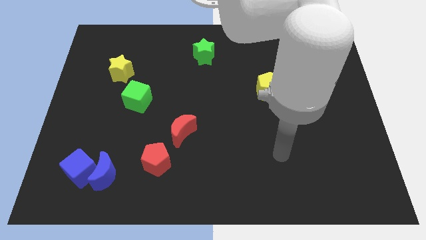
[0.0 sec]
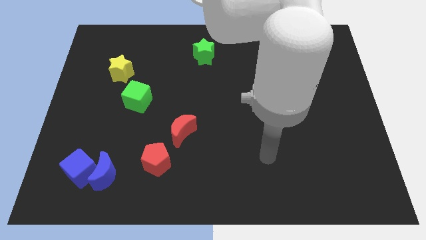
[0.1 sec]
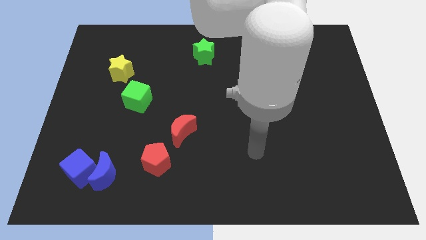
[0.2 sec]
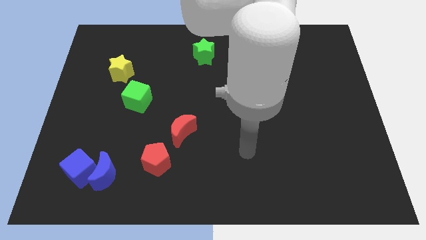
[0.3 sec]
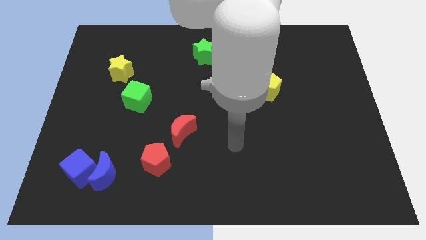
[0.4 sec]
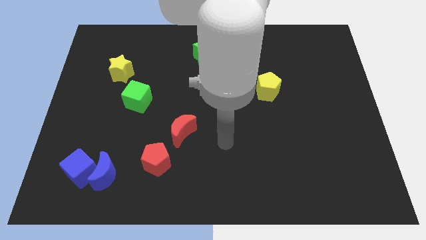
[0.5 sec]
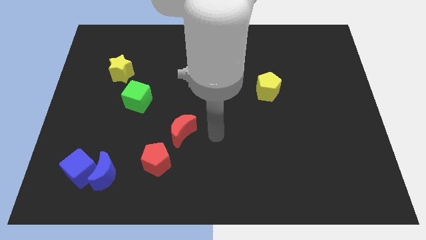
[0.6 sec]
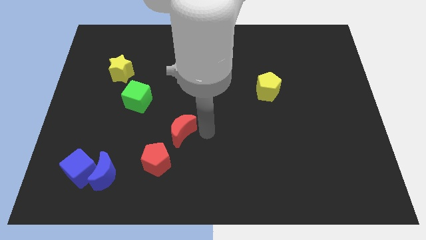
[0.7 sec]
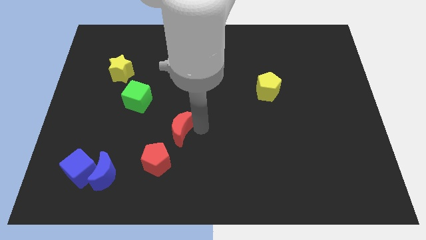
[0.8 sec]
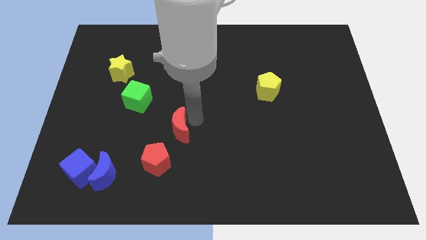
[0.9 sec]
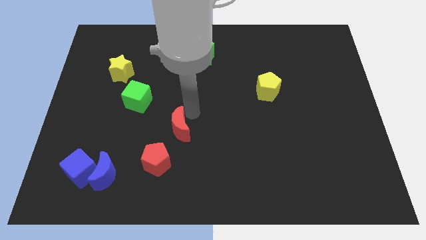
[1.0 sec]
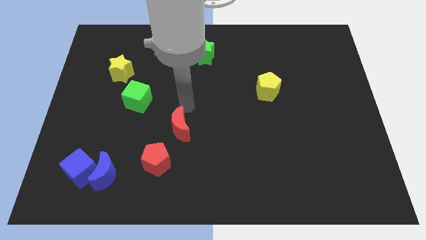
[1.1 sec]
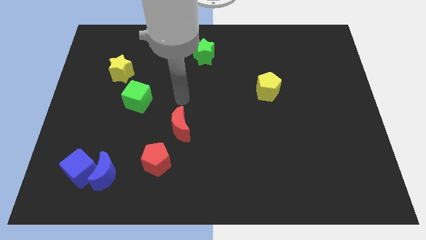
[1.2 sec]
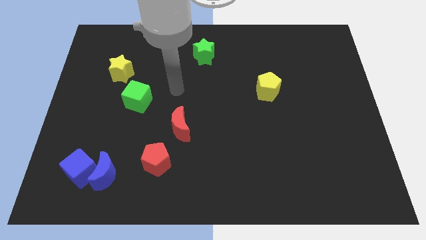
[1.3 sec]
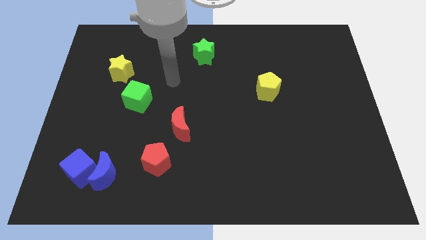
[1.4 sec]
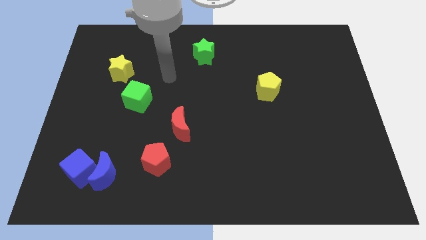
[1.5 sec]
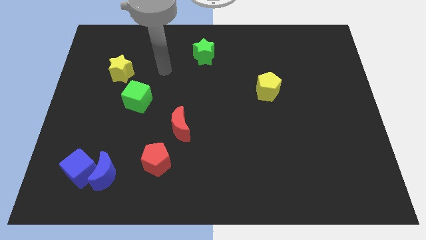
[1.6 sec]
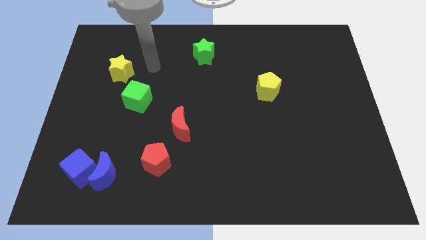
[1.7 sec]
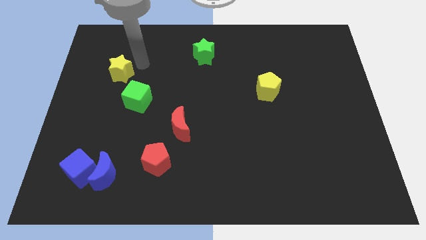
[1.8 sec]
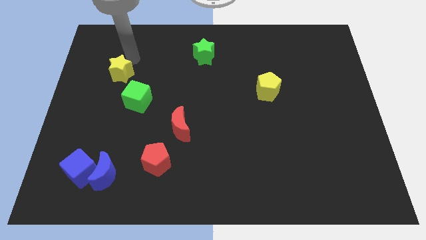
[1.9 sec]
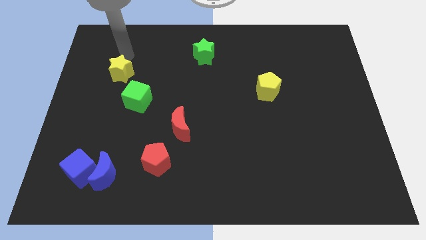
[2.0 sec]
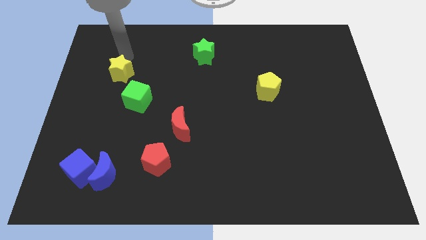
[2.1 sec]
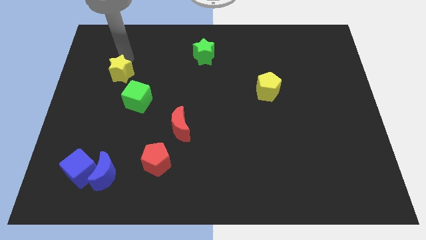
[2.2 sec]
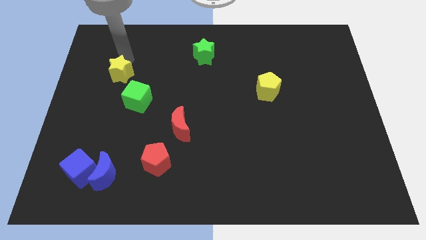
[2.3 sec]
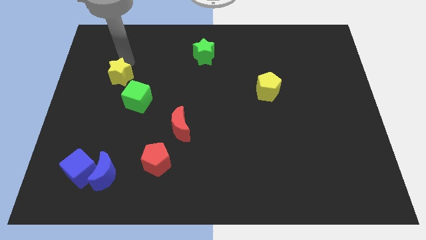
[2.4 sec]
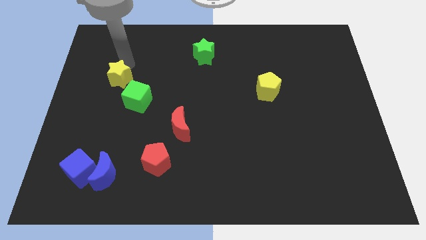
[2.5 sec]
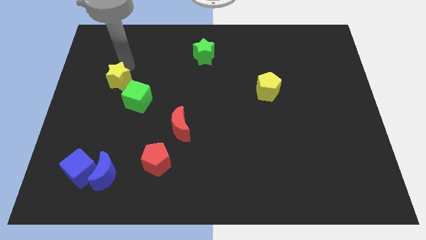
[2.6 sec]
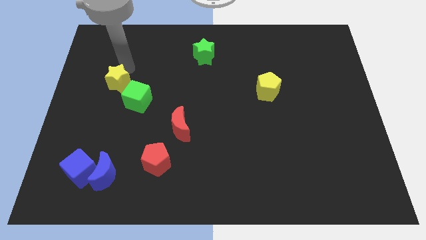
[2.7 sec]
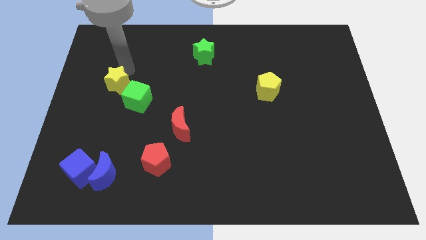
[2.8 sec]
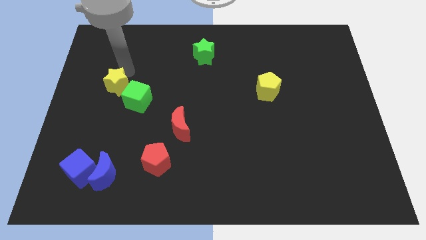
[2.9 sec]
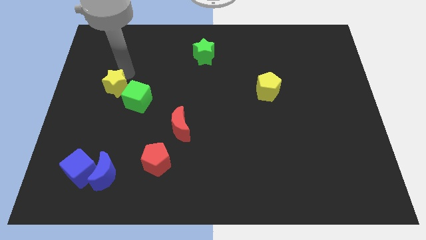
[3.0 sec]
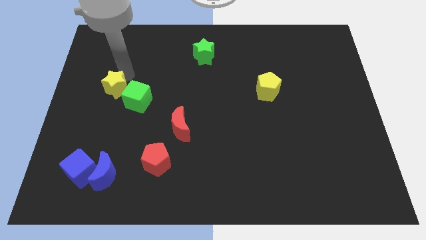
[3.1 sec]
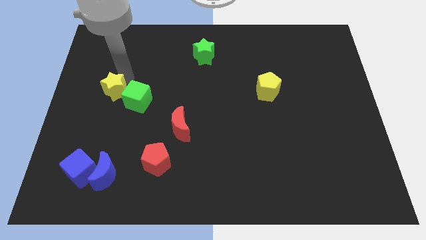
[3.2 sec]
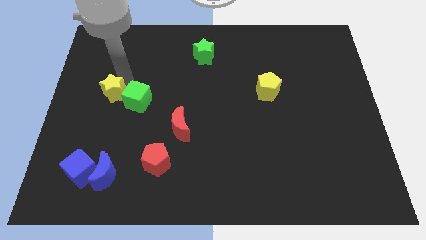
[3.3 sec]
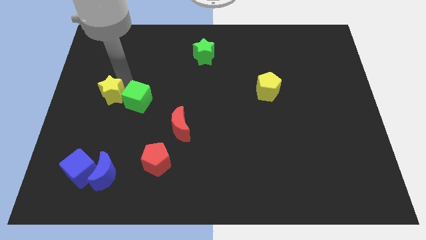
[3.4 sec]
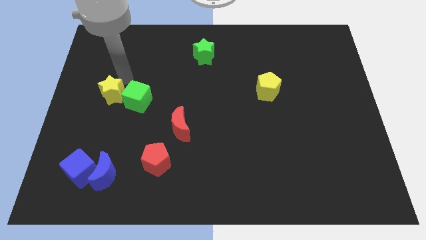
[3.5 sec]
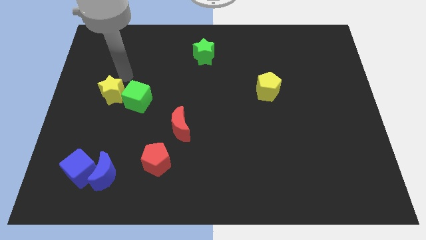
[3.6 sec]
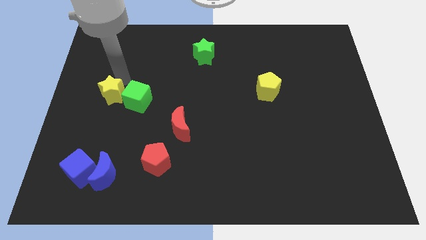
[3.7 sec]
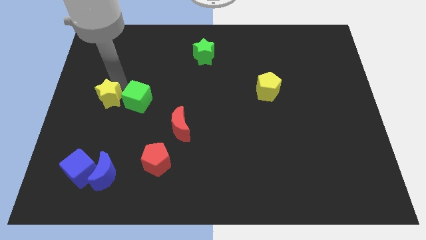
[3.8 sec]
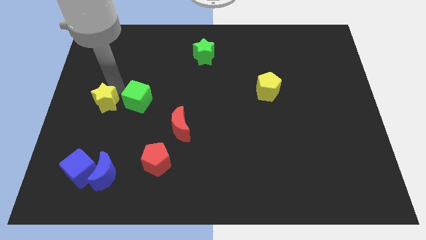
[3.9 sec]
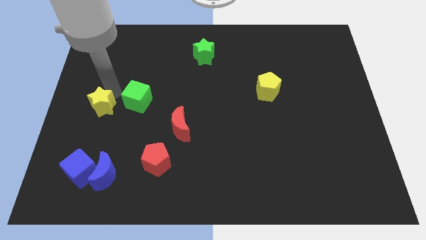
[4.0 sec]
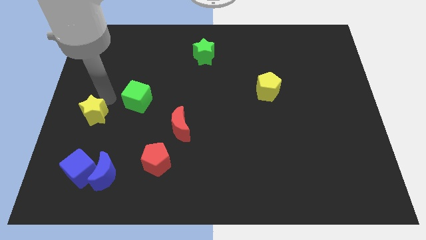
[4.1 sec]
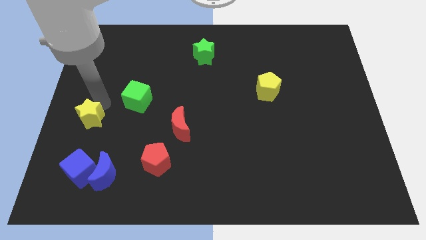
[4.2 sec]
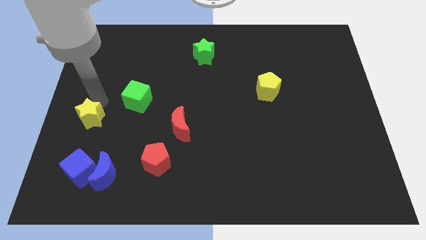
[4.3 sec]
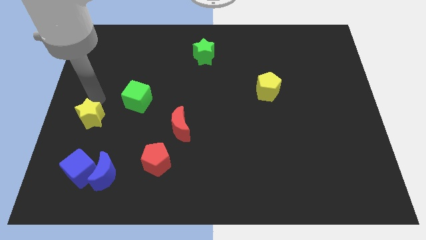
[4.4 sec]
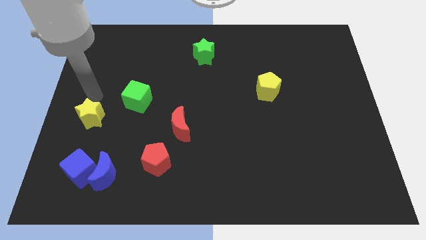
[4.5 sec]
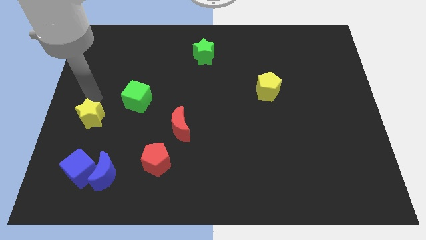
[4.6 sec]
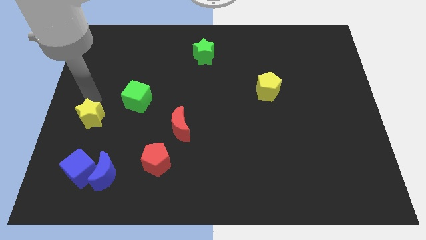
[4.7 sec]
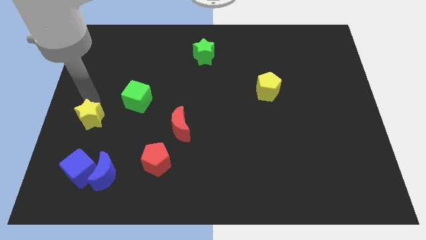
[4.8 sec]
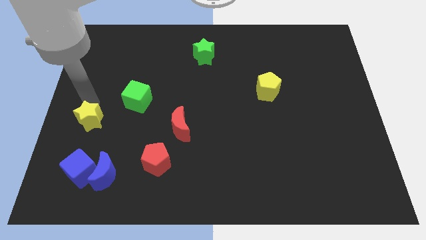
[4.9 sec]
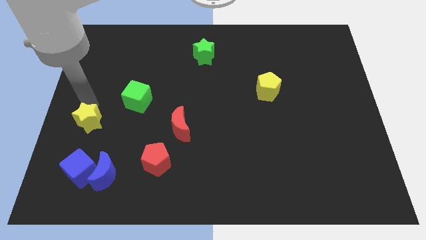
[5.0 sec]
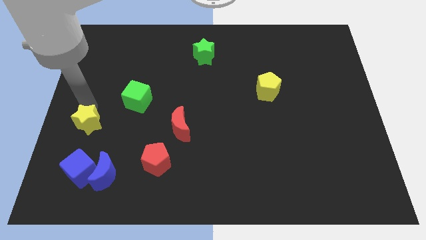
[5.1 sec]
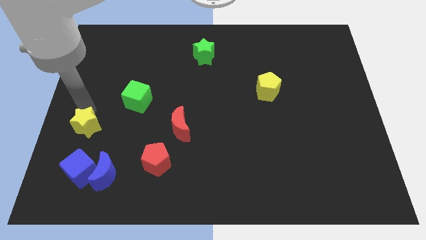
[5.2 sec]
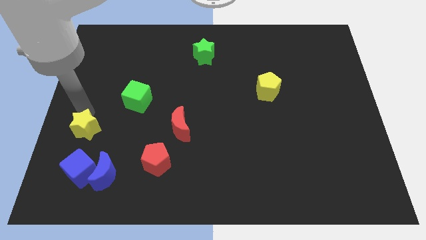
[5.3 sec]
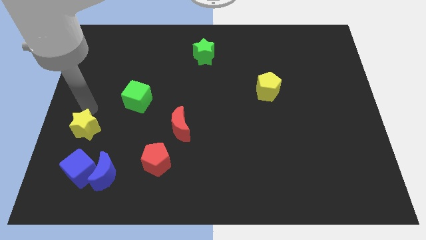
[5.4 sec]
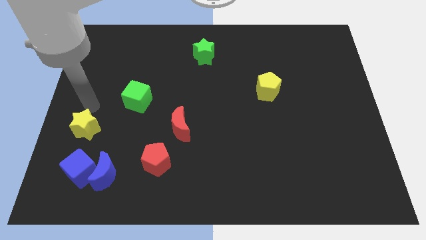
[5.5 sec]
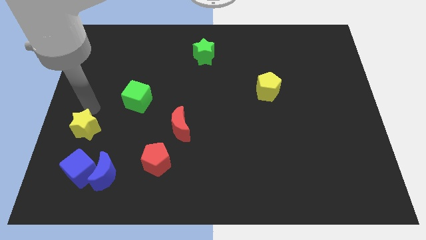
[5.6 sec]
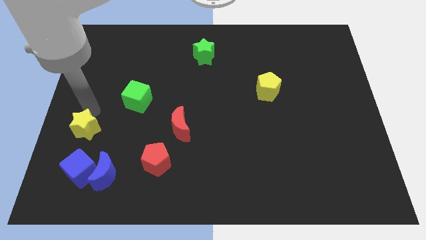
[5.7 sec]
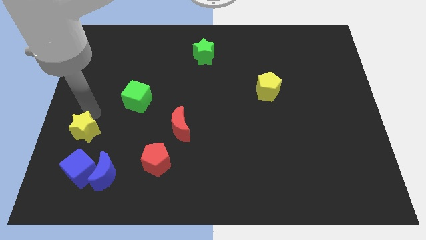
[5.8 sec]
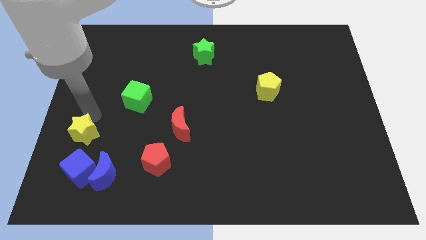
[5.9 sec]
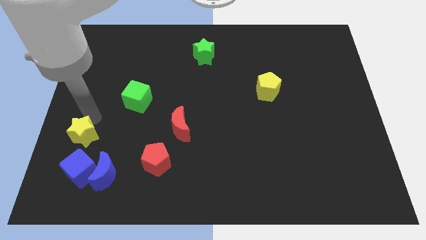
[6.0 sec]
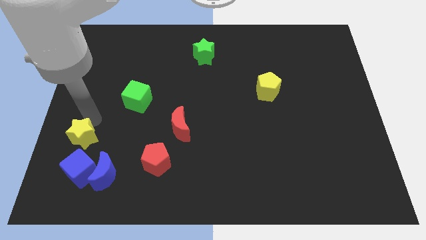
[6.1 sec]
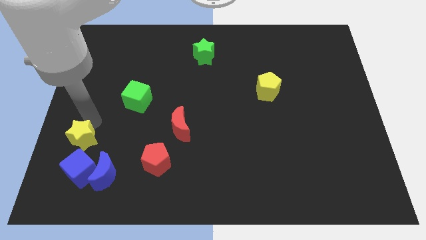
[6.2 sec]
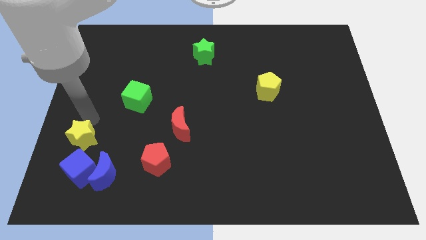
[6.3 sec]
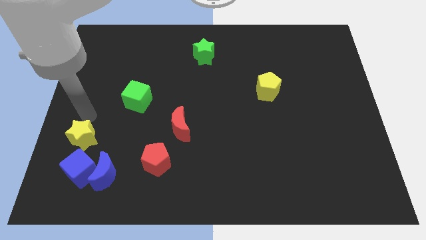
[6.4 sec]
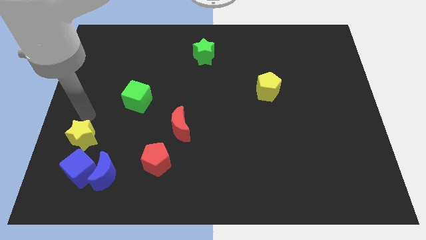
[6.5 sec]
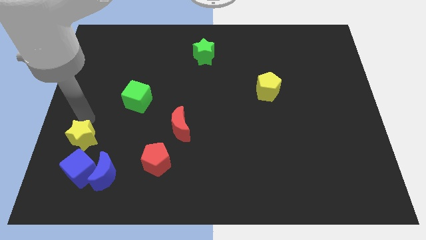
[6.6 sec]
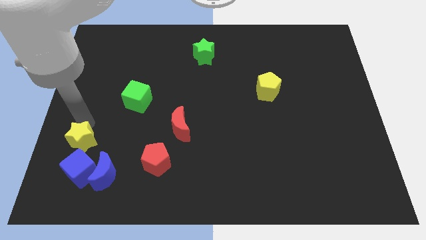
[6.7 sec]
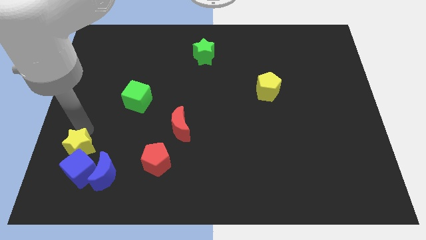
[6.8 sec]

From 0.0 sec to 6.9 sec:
slide the yellow star next to the blue cube
